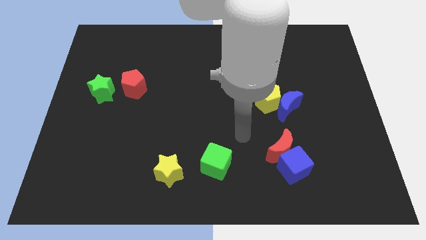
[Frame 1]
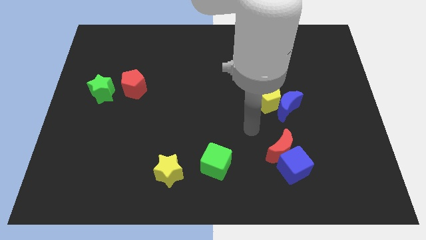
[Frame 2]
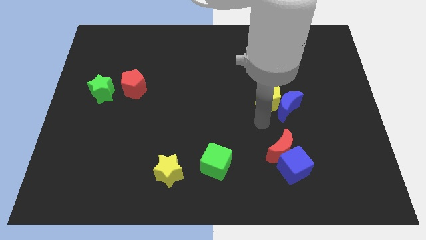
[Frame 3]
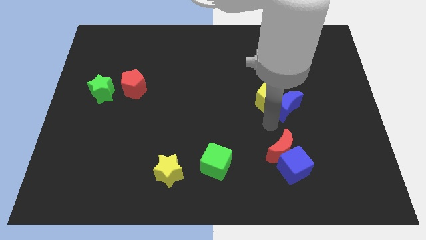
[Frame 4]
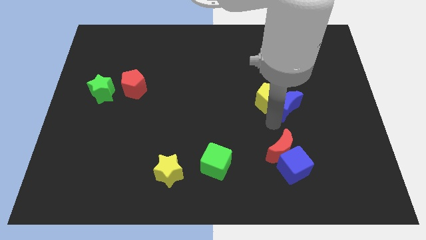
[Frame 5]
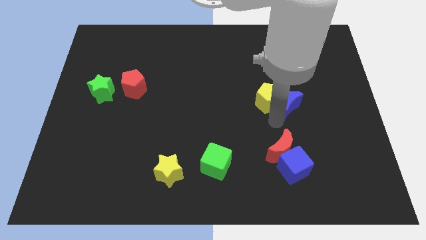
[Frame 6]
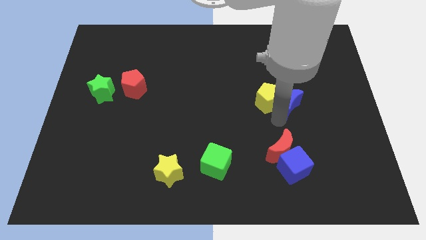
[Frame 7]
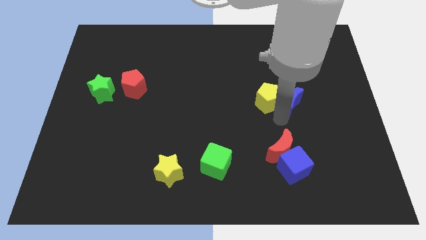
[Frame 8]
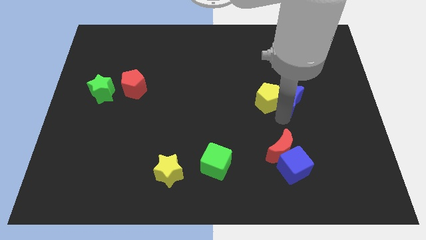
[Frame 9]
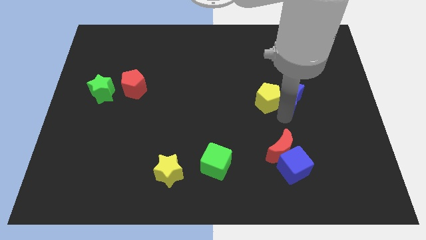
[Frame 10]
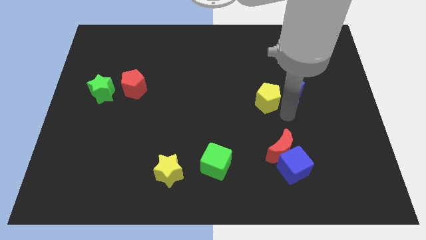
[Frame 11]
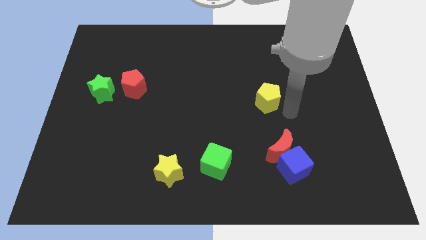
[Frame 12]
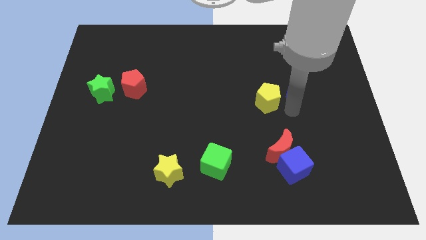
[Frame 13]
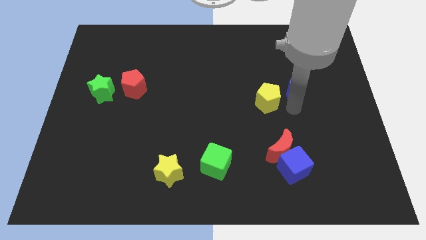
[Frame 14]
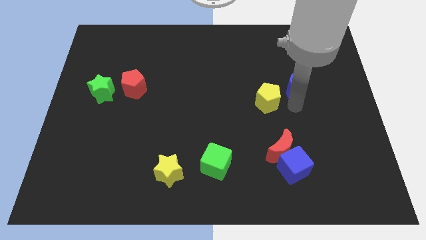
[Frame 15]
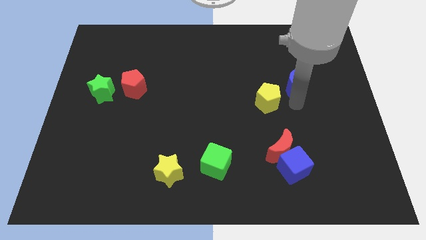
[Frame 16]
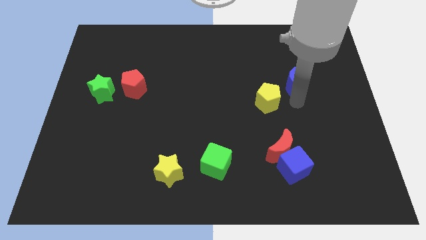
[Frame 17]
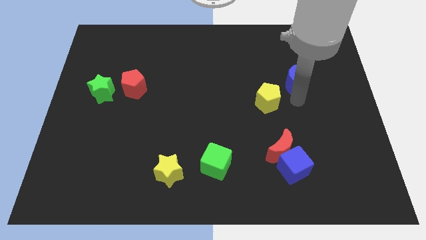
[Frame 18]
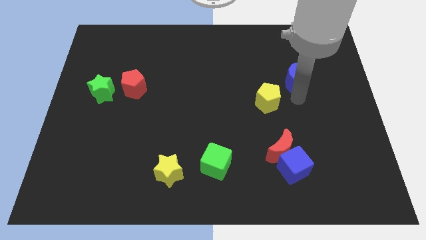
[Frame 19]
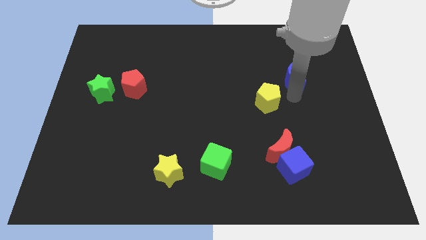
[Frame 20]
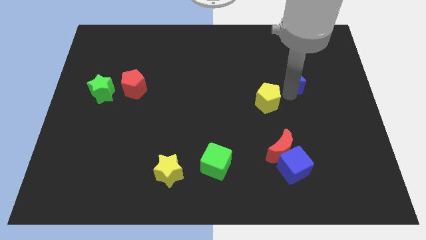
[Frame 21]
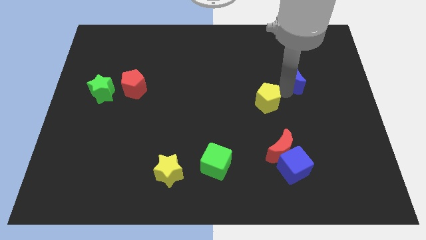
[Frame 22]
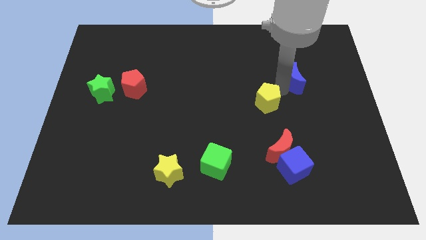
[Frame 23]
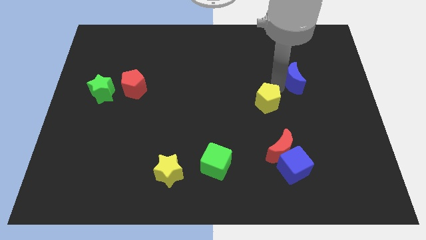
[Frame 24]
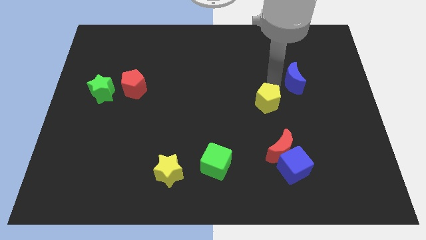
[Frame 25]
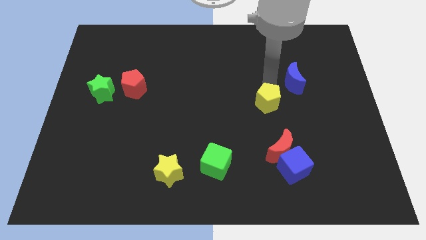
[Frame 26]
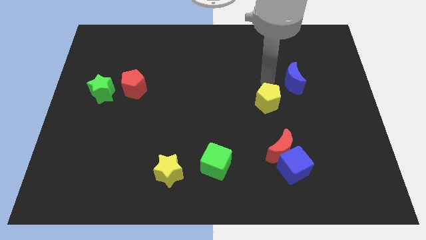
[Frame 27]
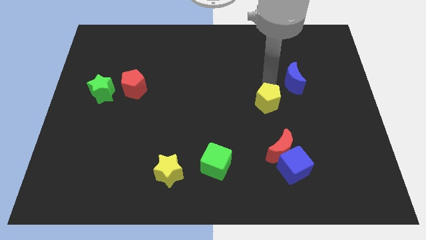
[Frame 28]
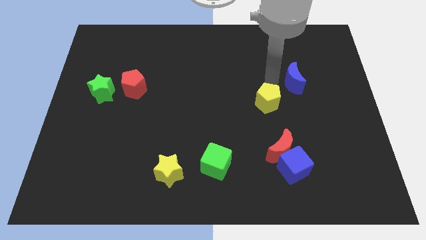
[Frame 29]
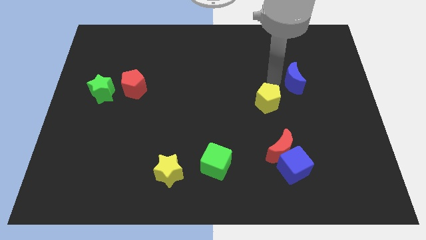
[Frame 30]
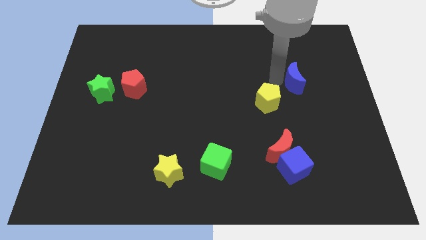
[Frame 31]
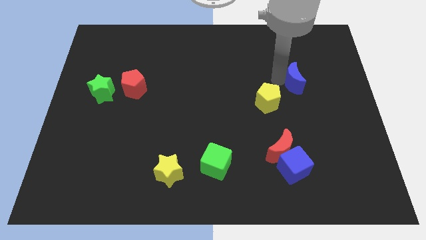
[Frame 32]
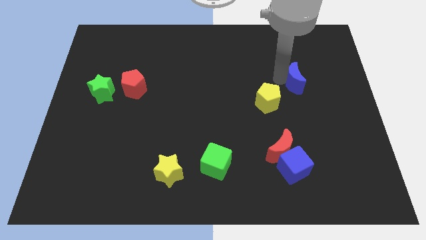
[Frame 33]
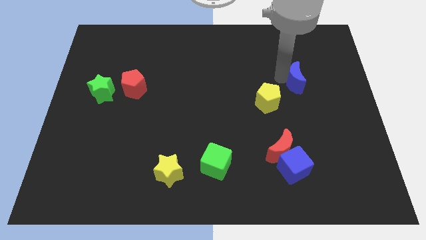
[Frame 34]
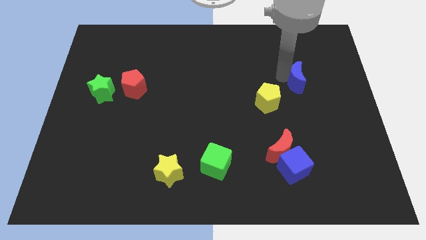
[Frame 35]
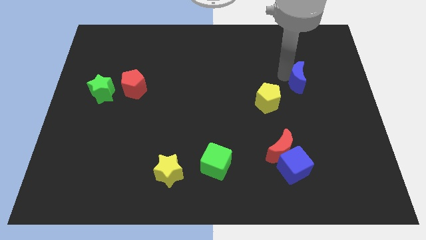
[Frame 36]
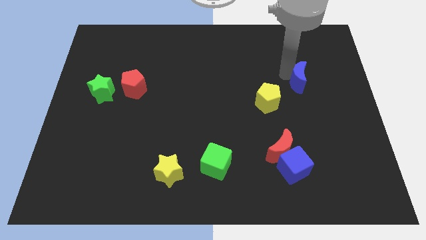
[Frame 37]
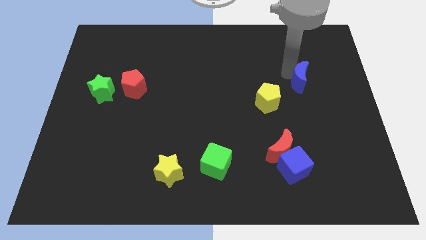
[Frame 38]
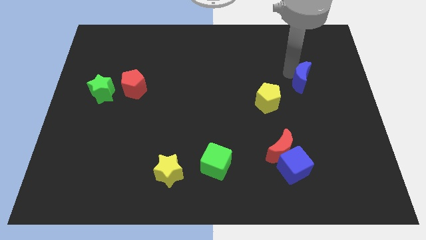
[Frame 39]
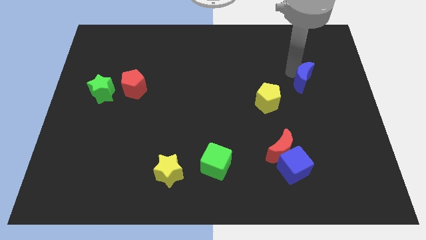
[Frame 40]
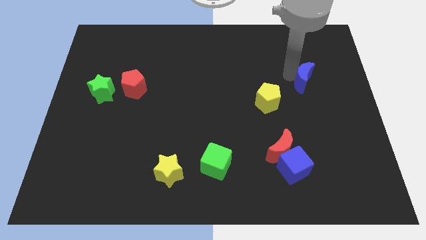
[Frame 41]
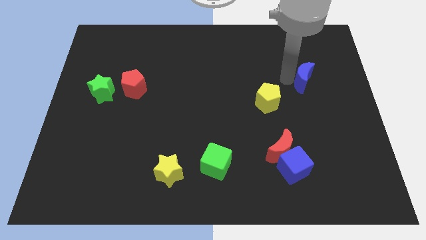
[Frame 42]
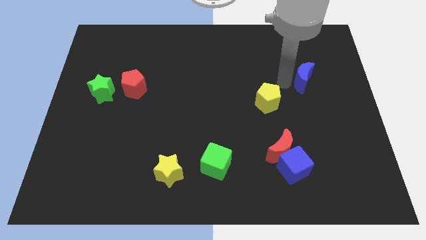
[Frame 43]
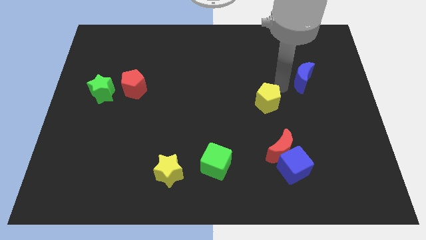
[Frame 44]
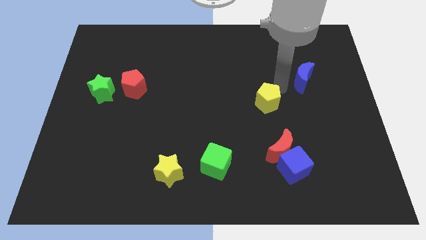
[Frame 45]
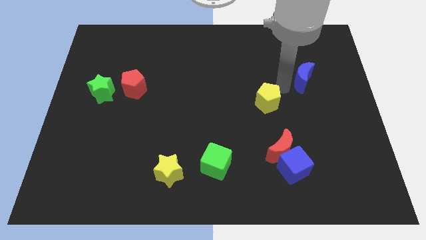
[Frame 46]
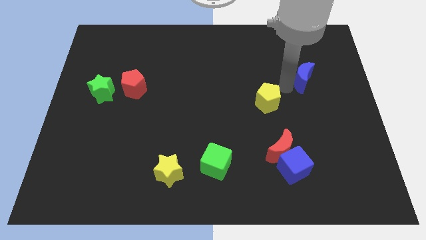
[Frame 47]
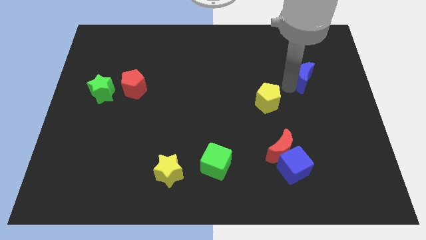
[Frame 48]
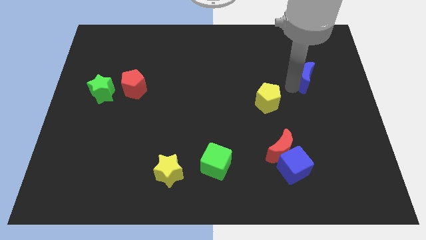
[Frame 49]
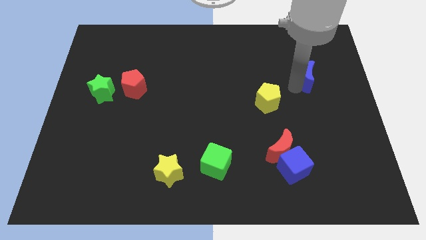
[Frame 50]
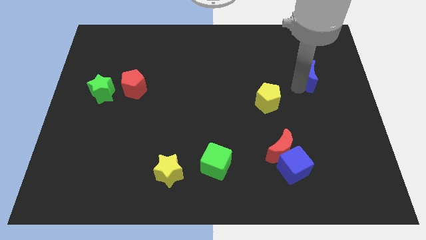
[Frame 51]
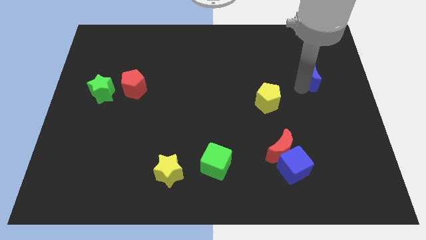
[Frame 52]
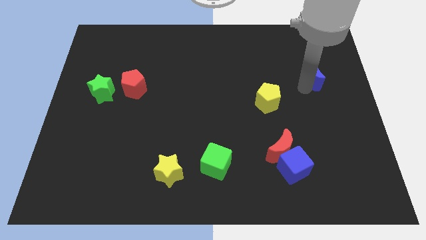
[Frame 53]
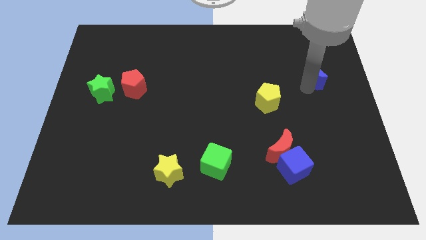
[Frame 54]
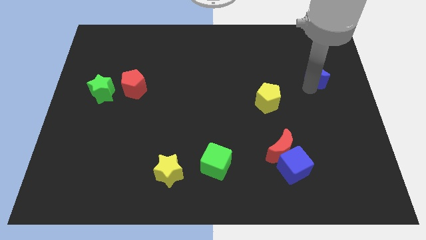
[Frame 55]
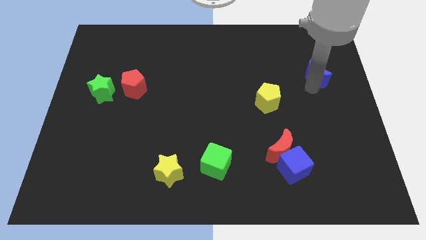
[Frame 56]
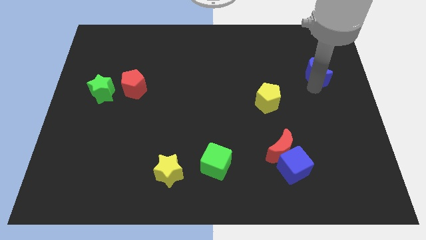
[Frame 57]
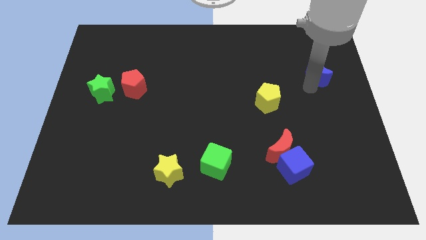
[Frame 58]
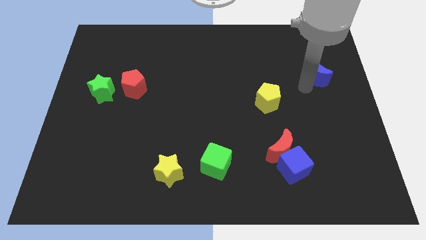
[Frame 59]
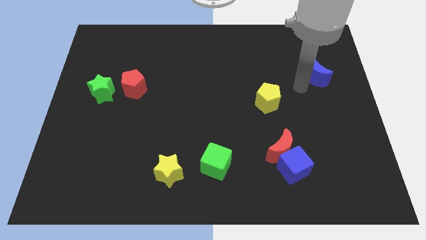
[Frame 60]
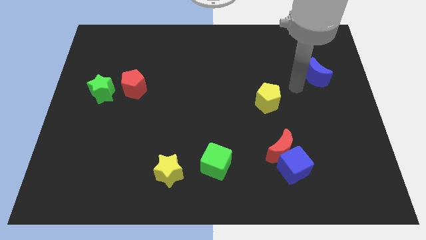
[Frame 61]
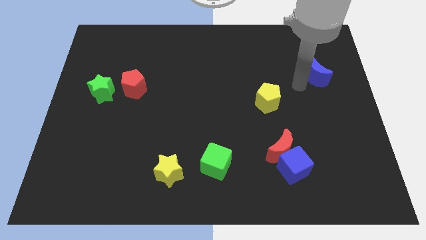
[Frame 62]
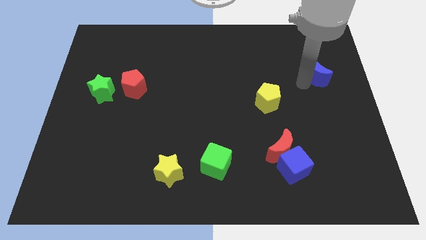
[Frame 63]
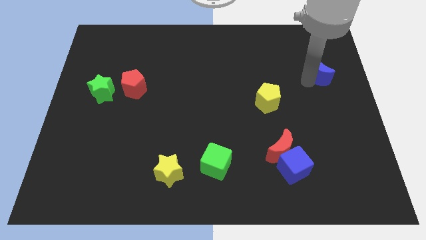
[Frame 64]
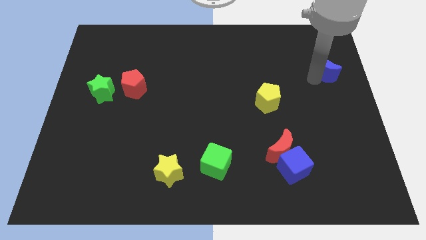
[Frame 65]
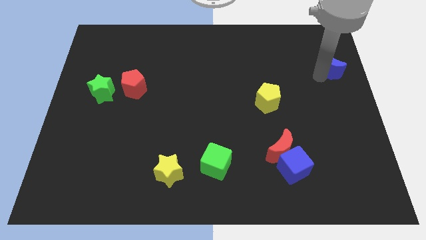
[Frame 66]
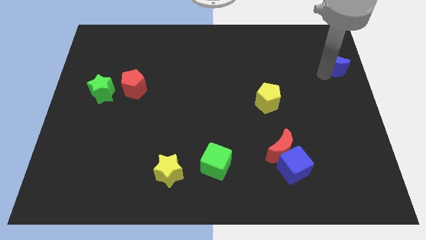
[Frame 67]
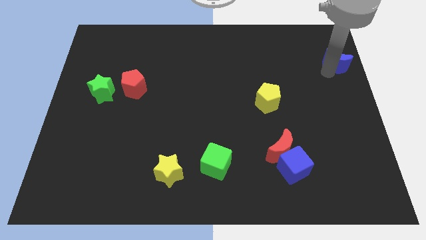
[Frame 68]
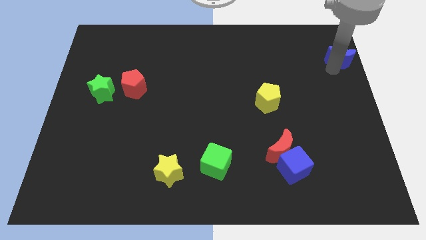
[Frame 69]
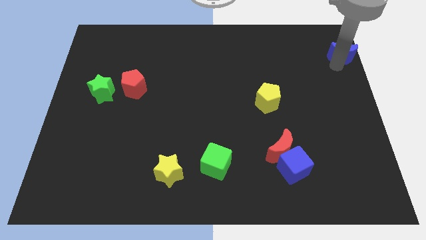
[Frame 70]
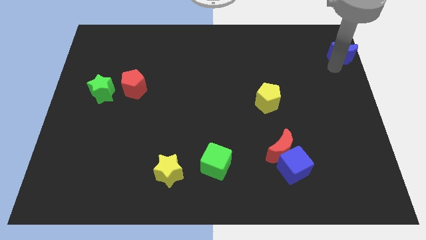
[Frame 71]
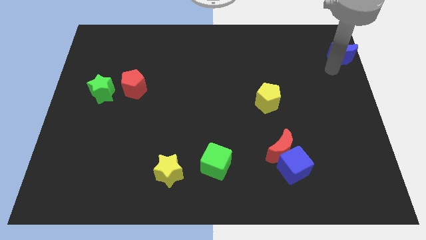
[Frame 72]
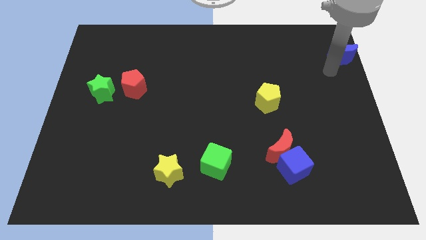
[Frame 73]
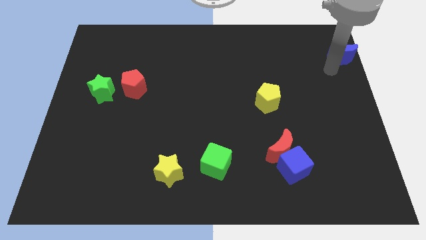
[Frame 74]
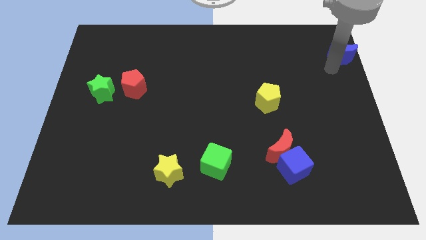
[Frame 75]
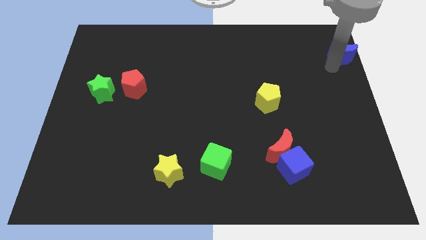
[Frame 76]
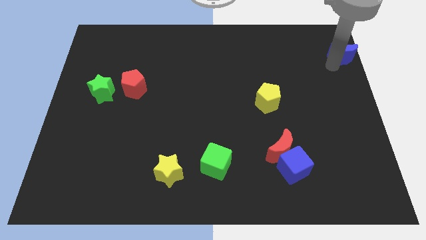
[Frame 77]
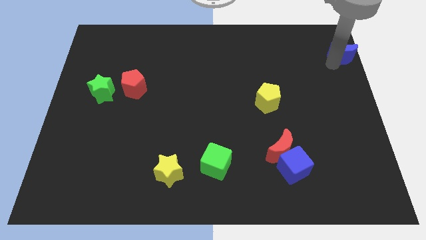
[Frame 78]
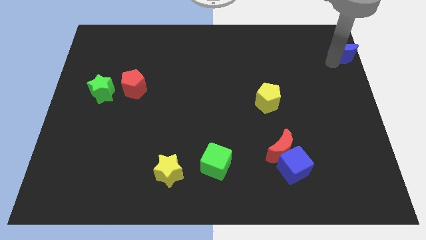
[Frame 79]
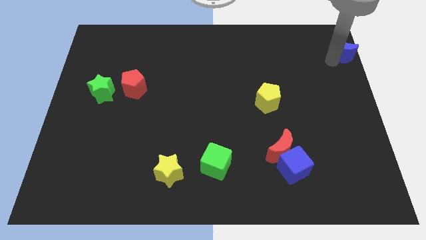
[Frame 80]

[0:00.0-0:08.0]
push the blue moon to the top right of the board
